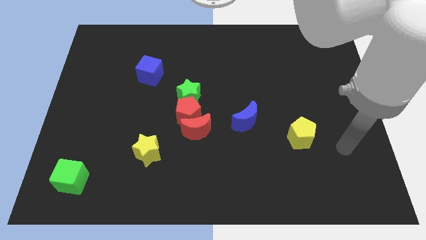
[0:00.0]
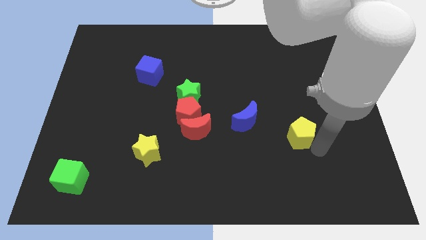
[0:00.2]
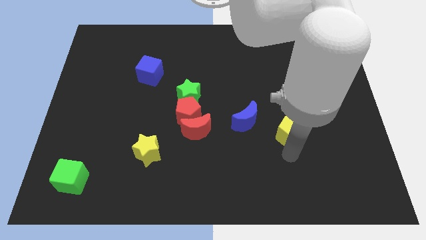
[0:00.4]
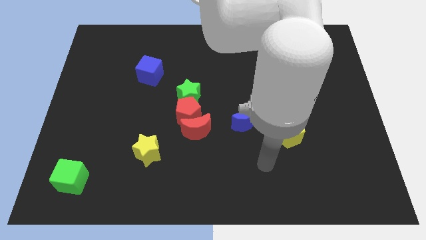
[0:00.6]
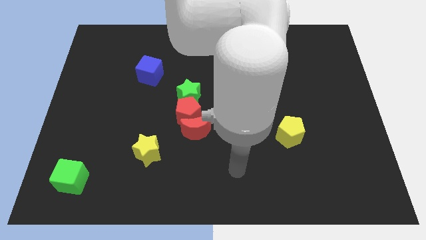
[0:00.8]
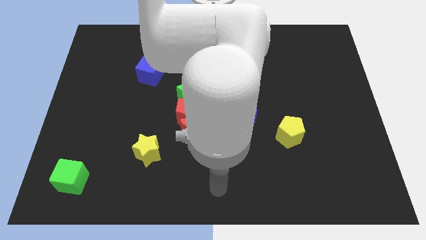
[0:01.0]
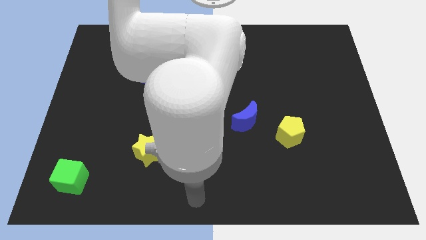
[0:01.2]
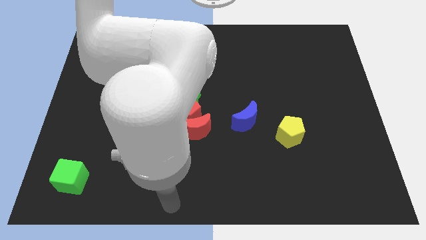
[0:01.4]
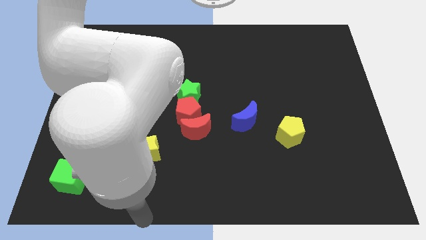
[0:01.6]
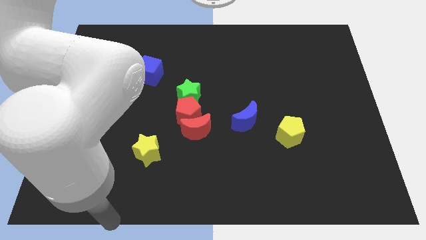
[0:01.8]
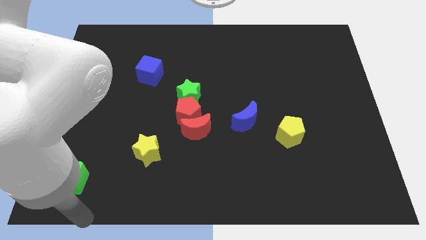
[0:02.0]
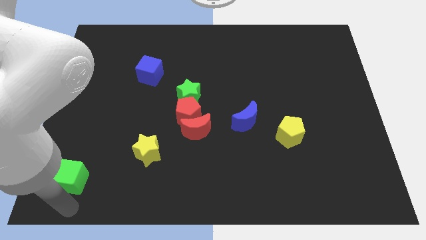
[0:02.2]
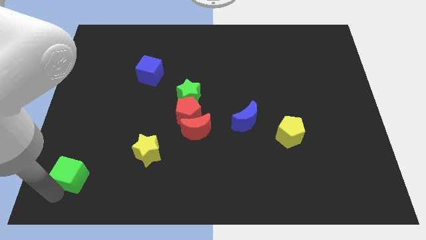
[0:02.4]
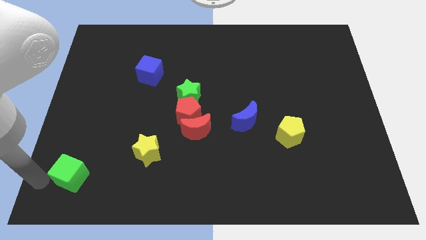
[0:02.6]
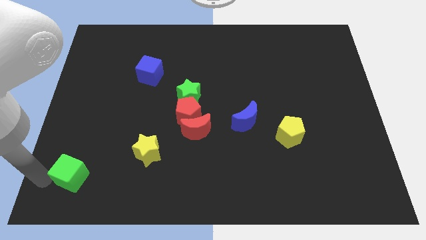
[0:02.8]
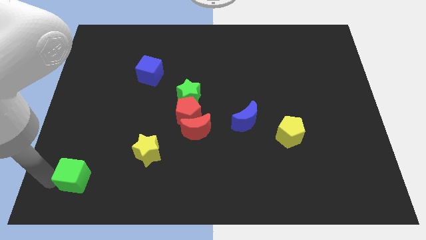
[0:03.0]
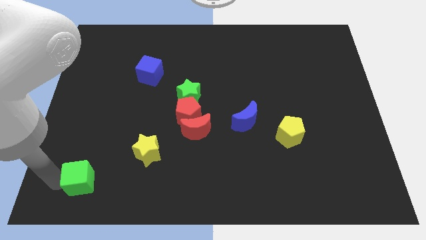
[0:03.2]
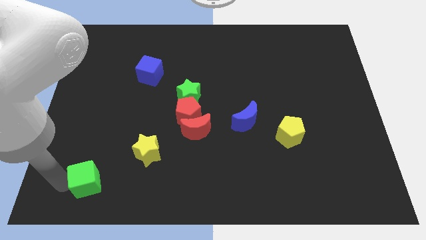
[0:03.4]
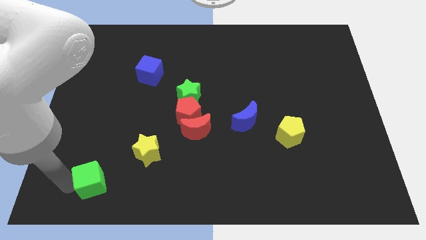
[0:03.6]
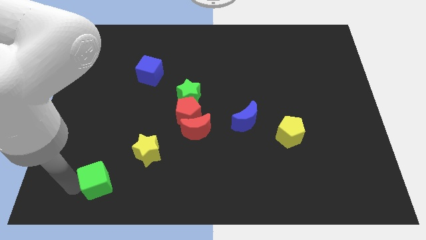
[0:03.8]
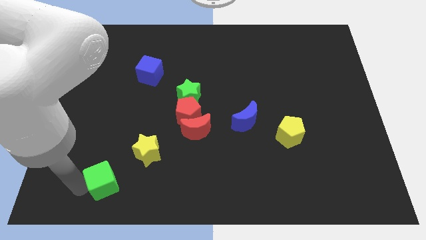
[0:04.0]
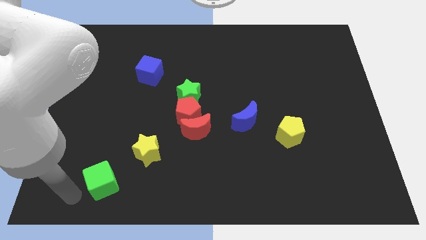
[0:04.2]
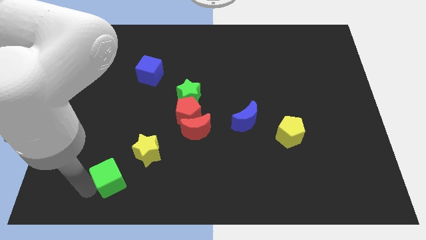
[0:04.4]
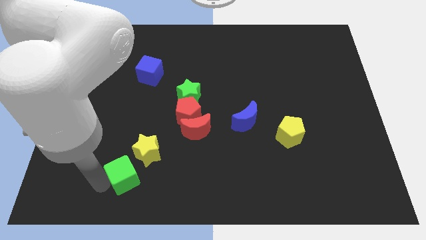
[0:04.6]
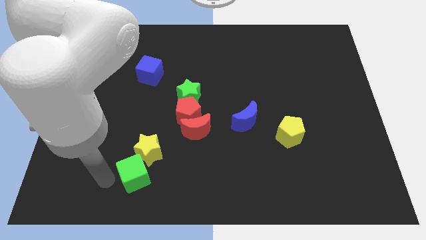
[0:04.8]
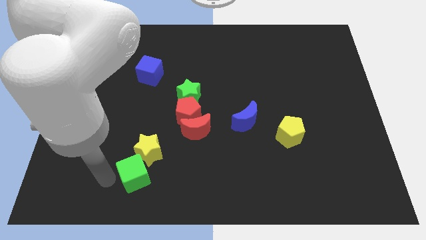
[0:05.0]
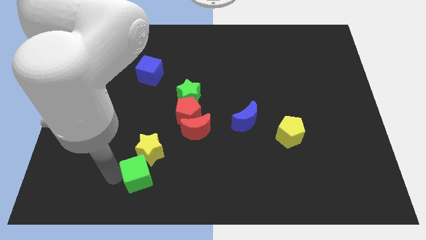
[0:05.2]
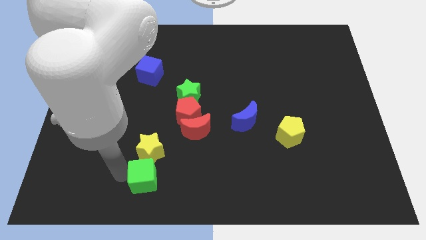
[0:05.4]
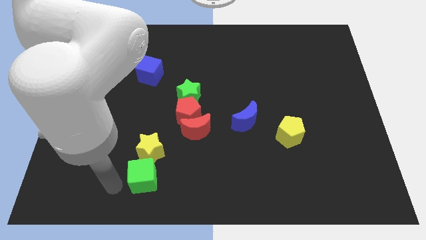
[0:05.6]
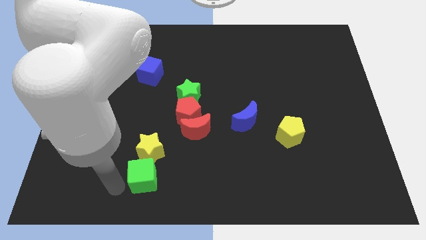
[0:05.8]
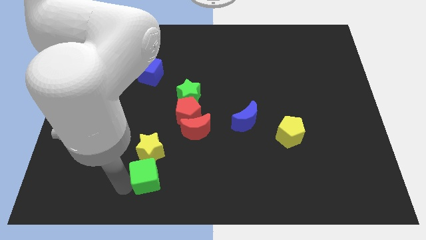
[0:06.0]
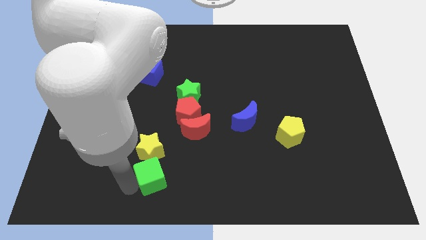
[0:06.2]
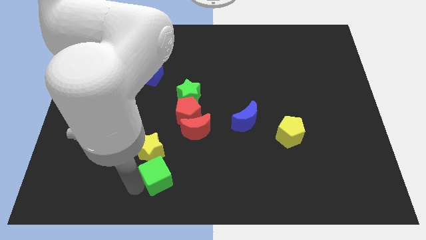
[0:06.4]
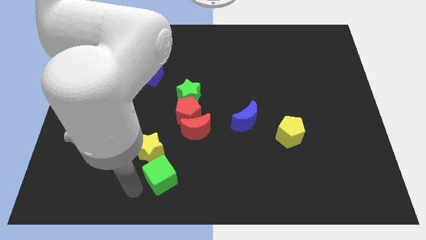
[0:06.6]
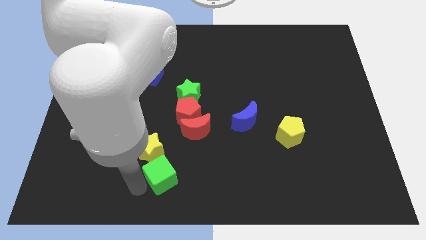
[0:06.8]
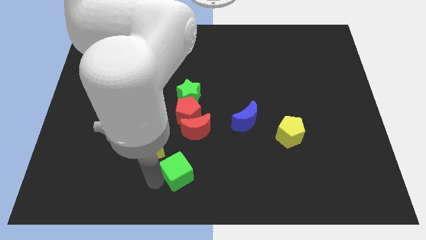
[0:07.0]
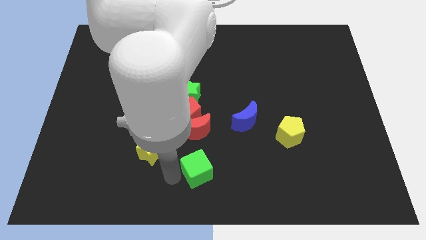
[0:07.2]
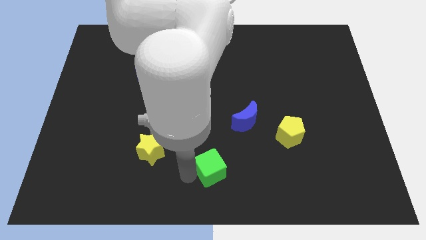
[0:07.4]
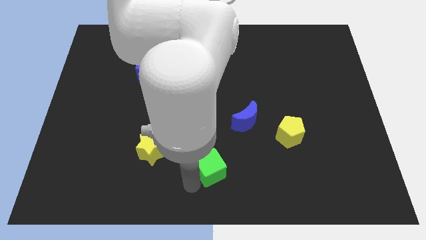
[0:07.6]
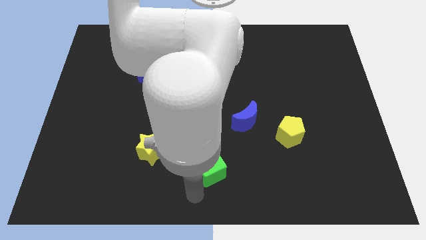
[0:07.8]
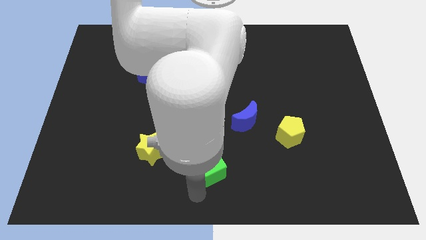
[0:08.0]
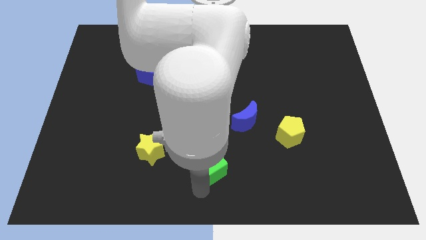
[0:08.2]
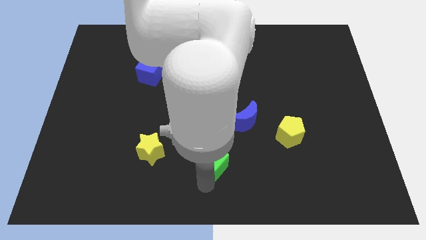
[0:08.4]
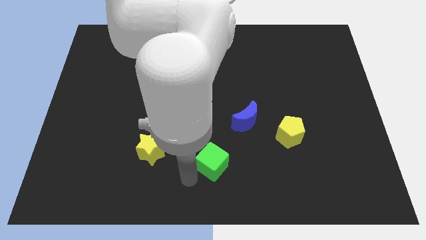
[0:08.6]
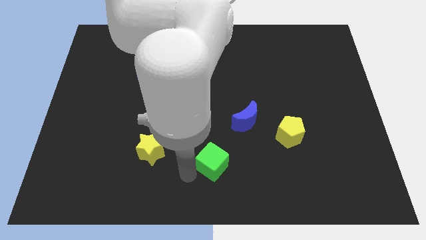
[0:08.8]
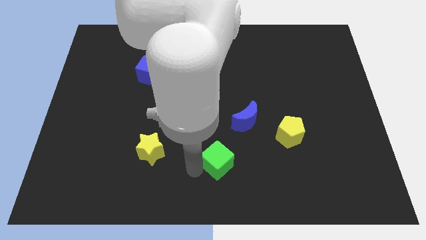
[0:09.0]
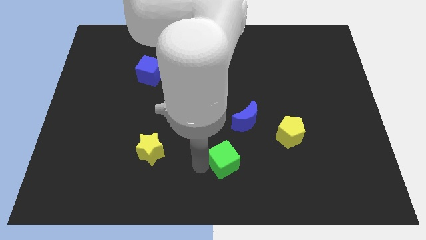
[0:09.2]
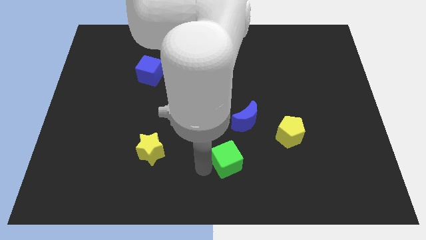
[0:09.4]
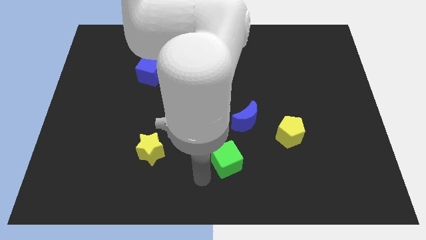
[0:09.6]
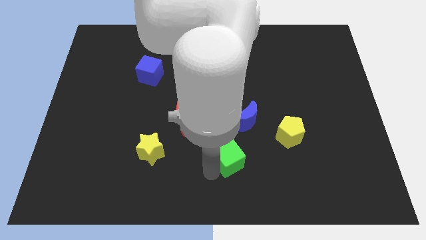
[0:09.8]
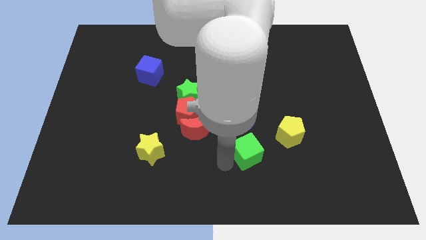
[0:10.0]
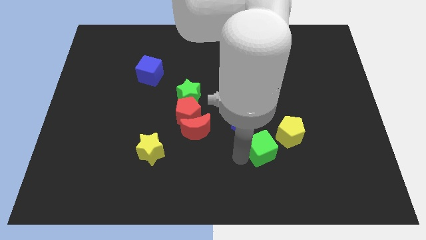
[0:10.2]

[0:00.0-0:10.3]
put the green cube to the bottom right of the blue moon

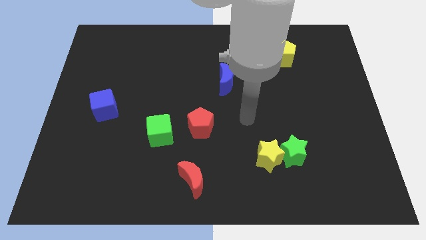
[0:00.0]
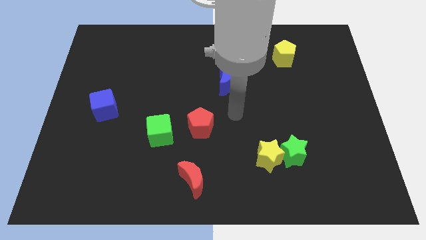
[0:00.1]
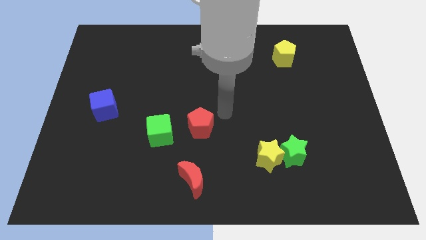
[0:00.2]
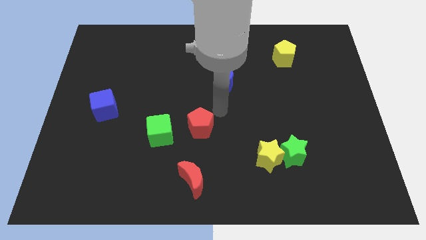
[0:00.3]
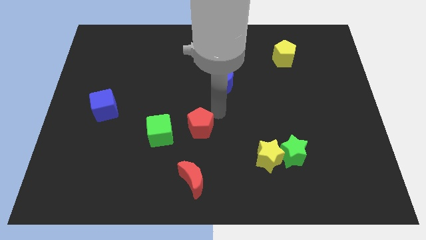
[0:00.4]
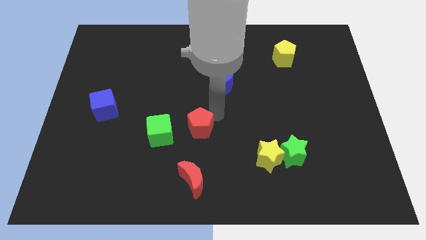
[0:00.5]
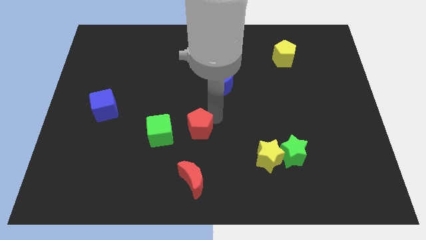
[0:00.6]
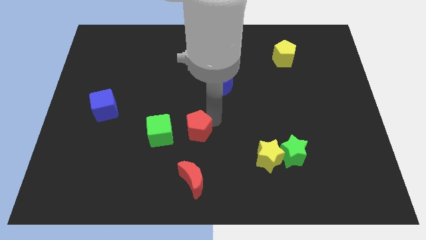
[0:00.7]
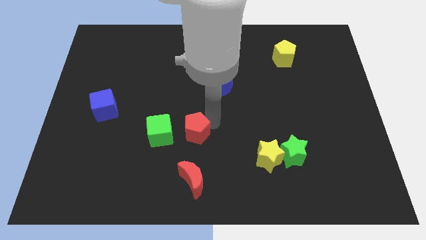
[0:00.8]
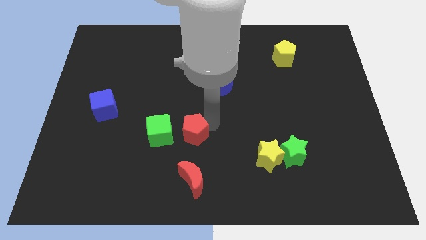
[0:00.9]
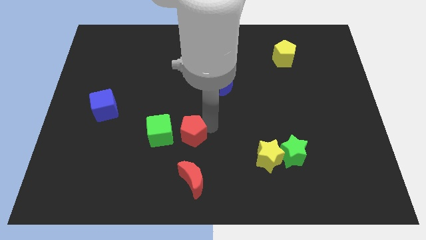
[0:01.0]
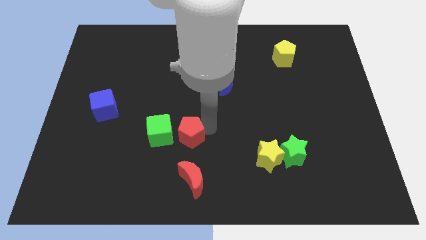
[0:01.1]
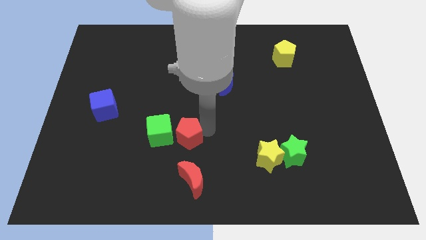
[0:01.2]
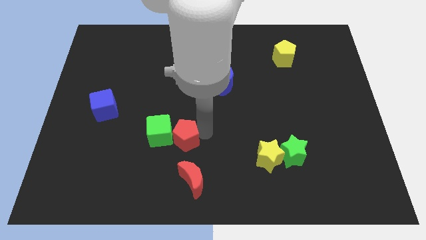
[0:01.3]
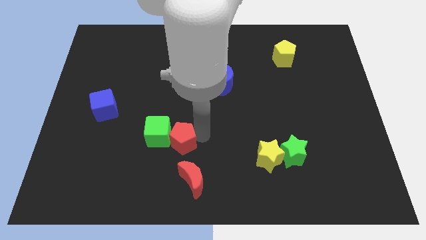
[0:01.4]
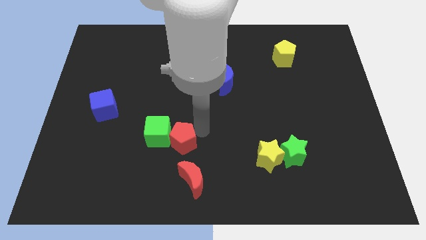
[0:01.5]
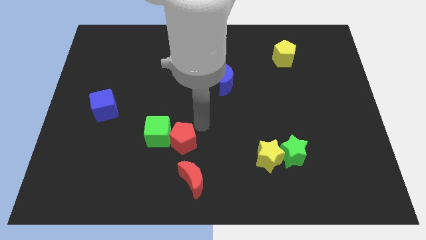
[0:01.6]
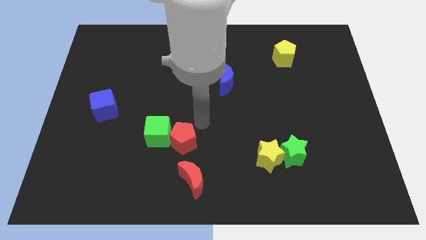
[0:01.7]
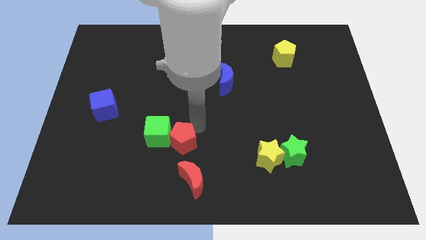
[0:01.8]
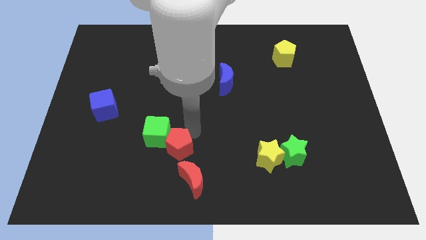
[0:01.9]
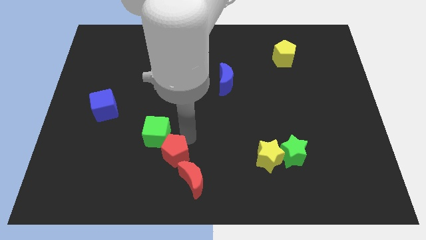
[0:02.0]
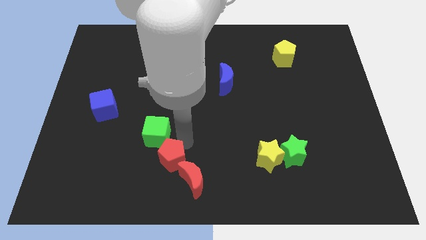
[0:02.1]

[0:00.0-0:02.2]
move the red pentagon just left of the red moon
